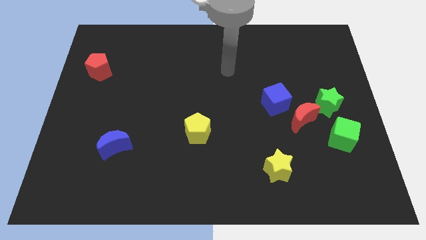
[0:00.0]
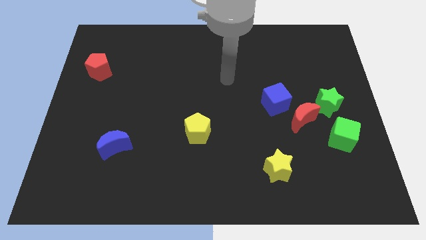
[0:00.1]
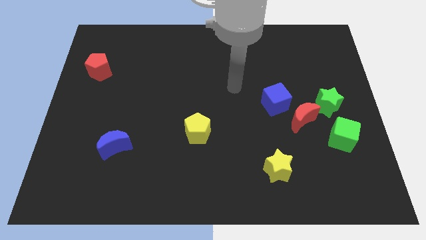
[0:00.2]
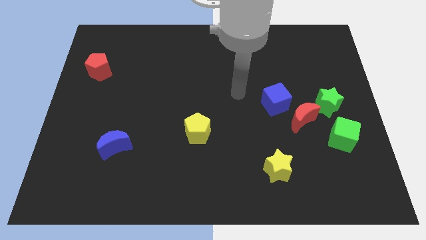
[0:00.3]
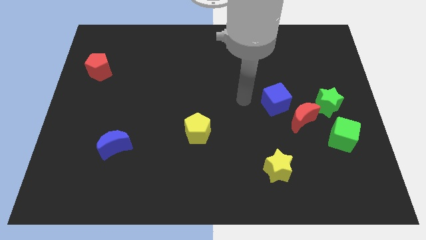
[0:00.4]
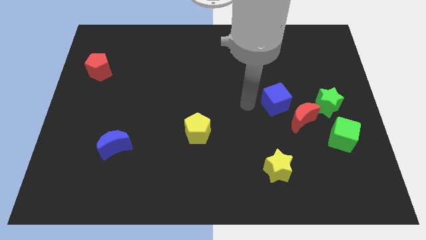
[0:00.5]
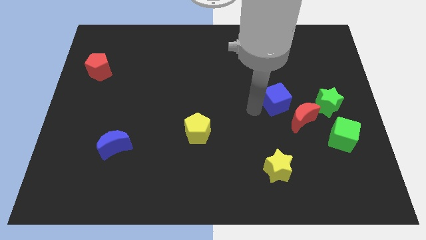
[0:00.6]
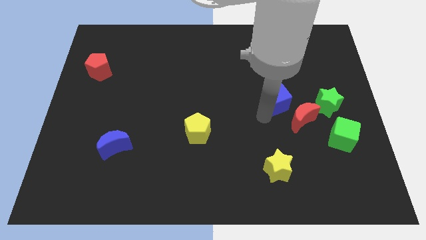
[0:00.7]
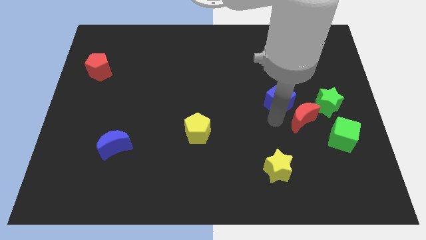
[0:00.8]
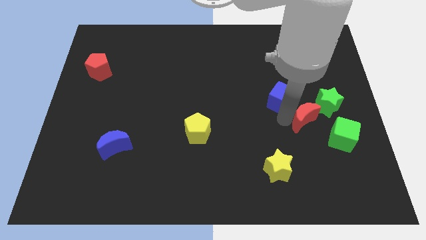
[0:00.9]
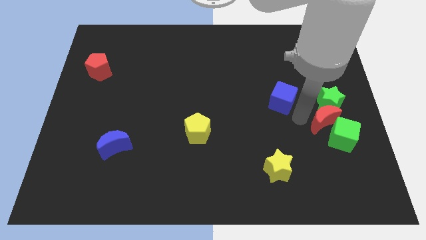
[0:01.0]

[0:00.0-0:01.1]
separate the blue cube from the red moon

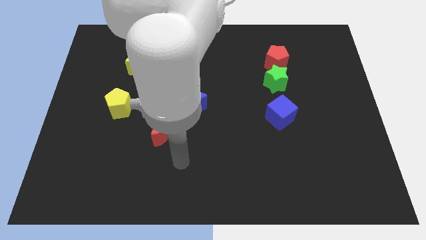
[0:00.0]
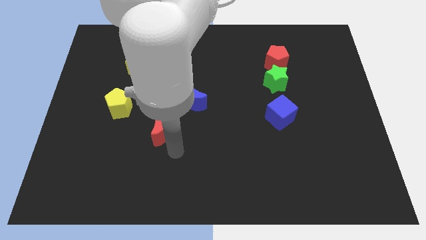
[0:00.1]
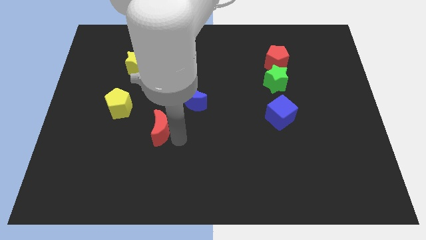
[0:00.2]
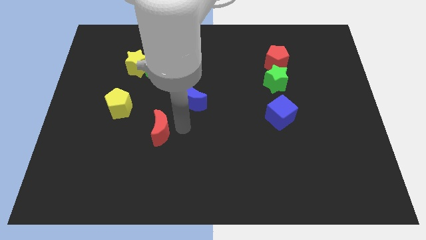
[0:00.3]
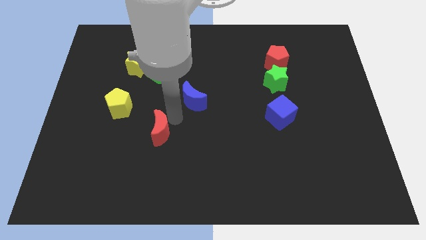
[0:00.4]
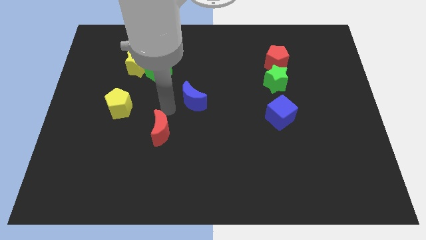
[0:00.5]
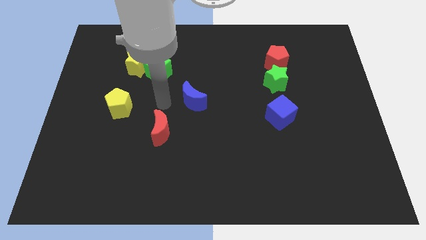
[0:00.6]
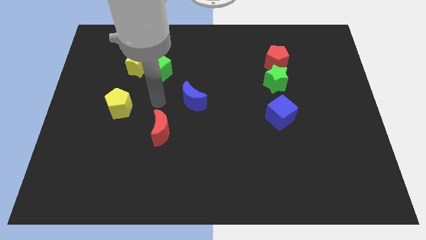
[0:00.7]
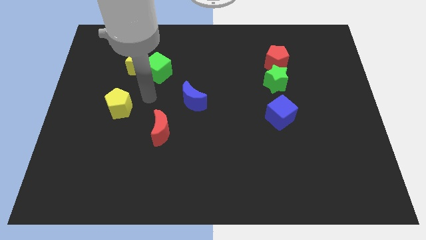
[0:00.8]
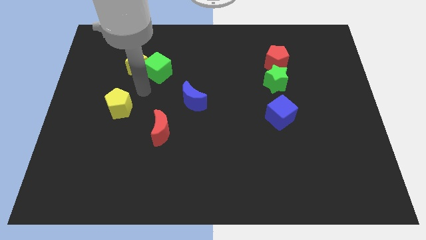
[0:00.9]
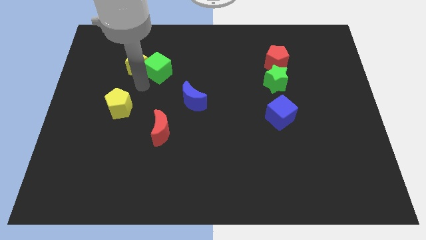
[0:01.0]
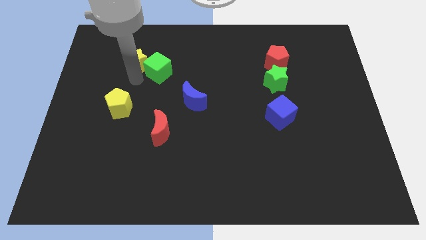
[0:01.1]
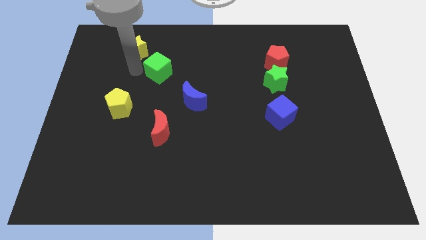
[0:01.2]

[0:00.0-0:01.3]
pull the green cube apart from the yellow star

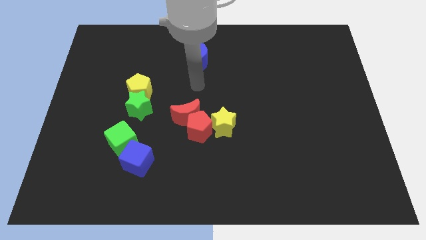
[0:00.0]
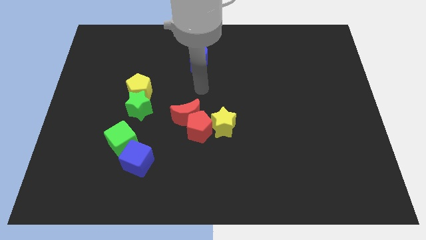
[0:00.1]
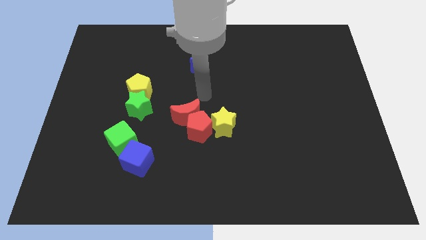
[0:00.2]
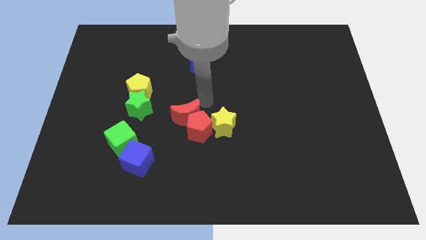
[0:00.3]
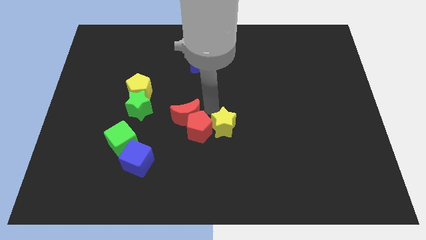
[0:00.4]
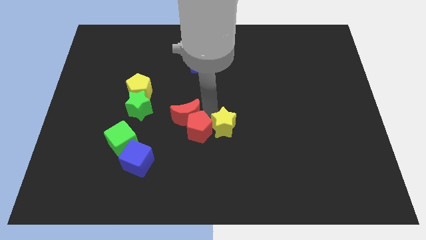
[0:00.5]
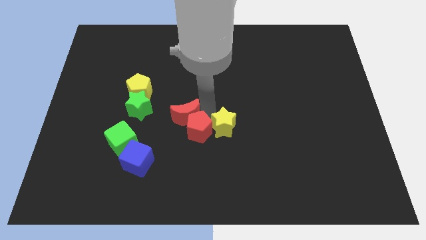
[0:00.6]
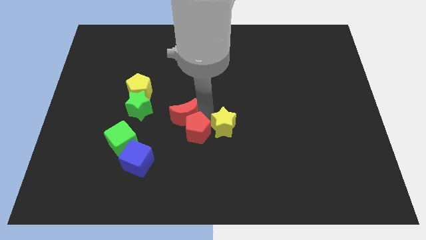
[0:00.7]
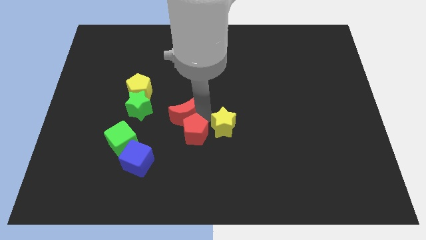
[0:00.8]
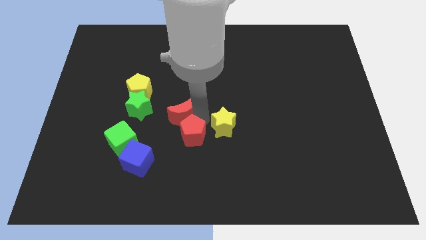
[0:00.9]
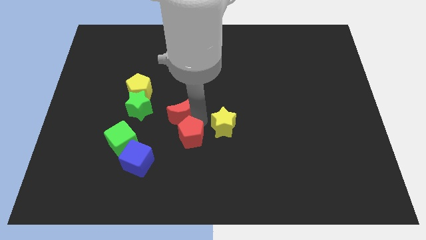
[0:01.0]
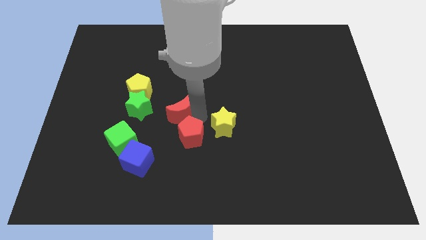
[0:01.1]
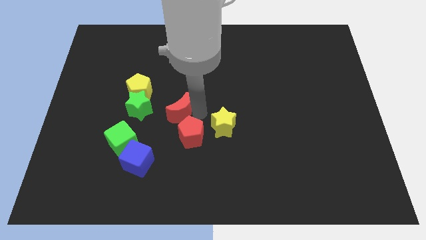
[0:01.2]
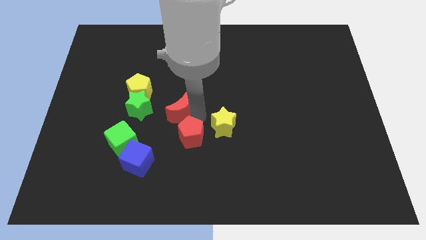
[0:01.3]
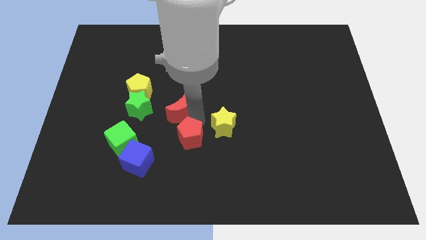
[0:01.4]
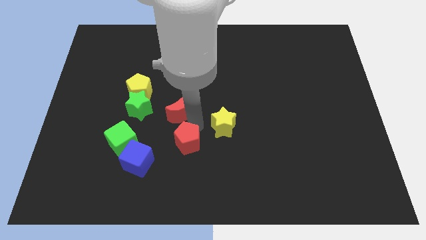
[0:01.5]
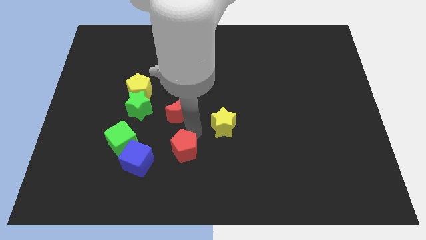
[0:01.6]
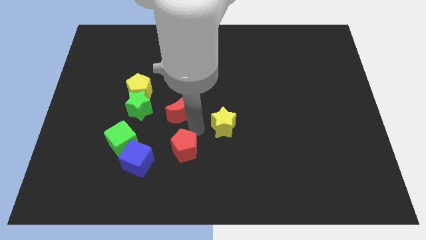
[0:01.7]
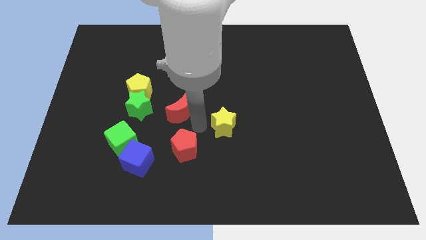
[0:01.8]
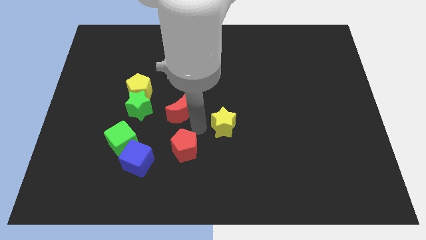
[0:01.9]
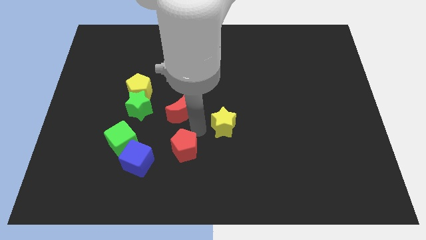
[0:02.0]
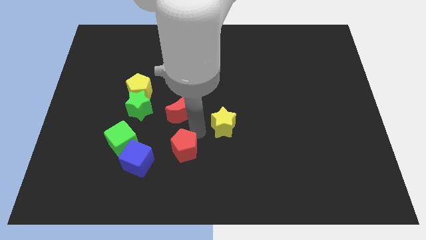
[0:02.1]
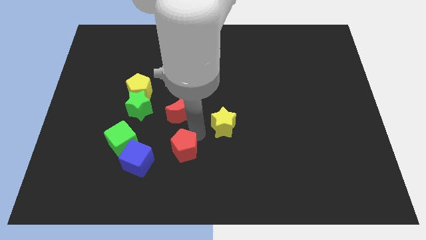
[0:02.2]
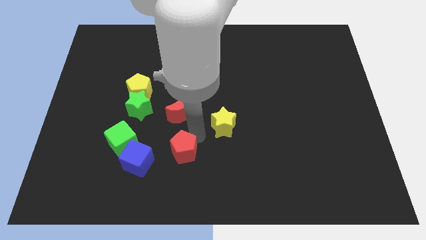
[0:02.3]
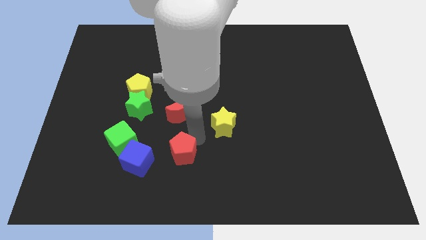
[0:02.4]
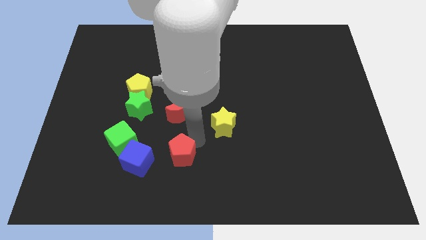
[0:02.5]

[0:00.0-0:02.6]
separate the red pentagon from the red moon and yellow star

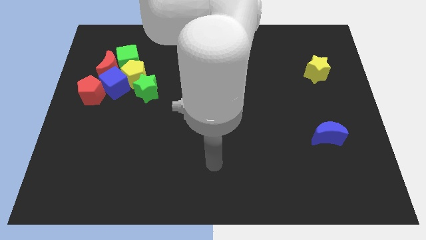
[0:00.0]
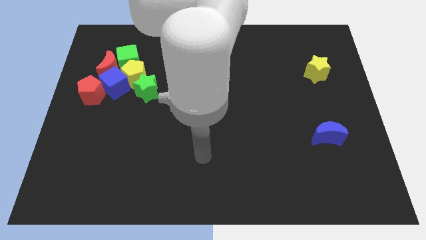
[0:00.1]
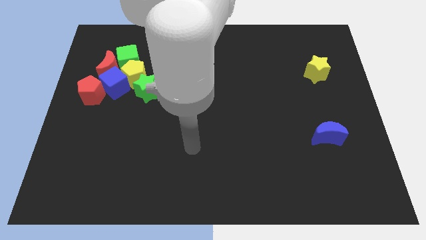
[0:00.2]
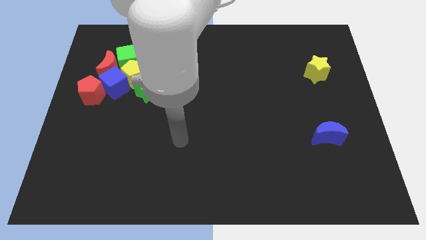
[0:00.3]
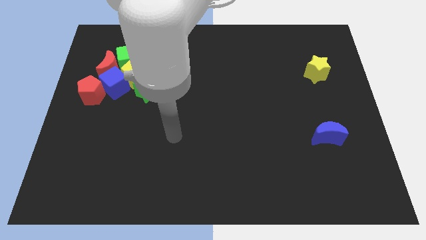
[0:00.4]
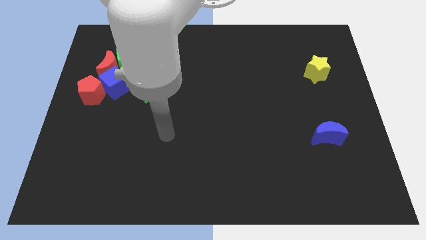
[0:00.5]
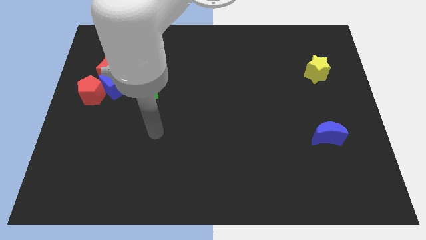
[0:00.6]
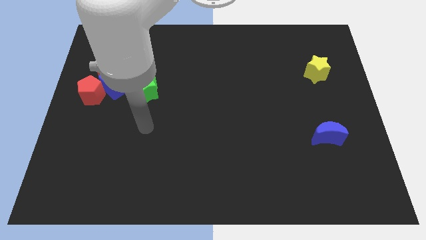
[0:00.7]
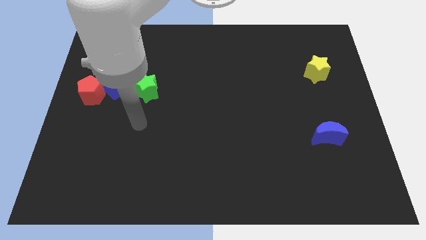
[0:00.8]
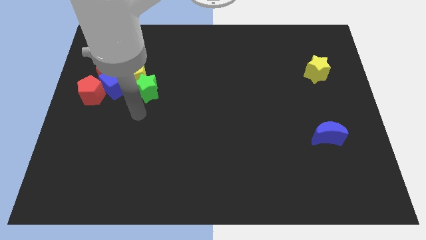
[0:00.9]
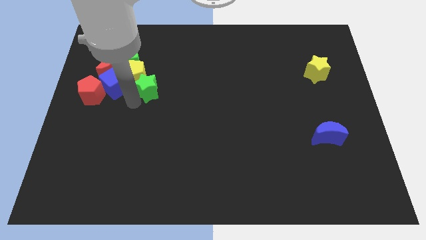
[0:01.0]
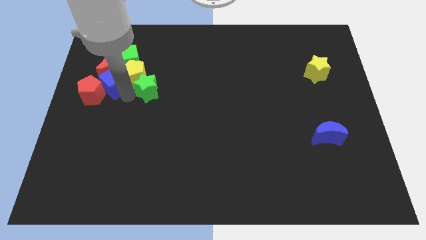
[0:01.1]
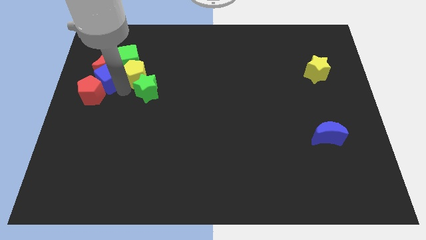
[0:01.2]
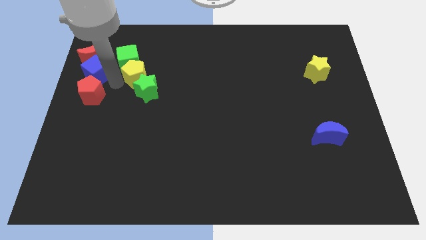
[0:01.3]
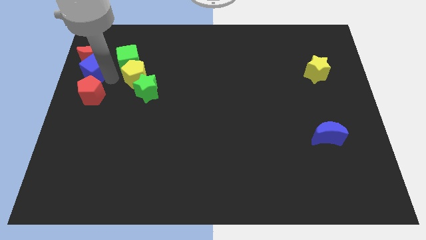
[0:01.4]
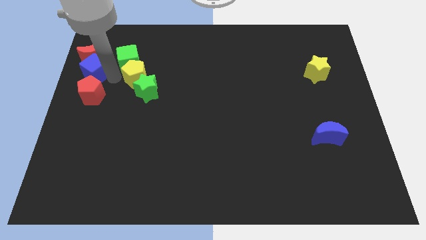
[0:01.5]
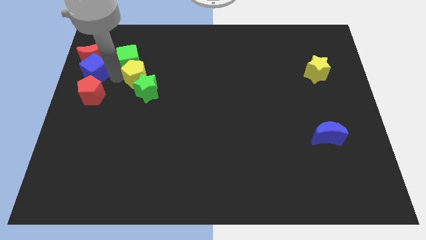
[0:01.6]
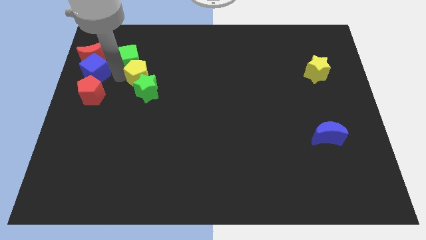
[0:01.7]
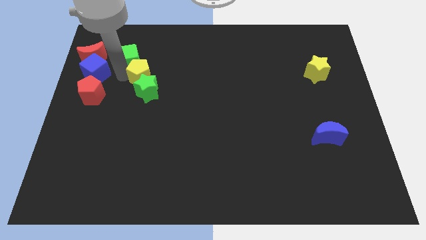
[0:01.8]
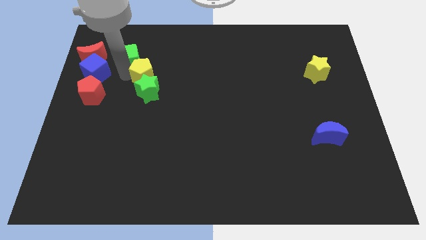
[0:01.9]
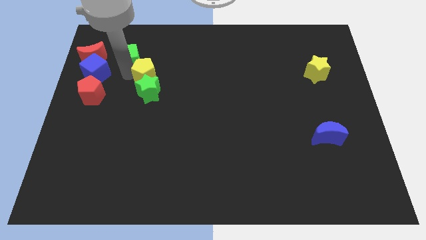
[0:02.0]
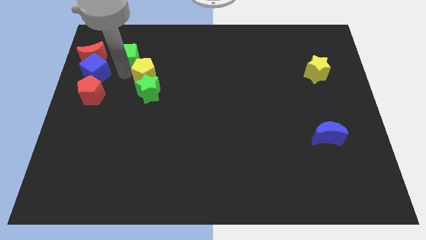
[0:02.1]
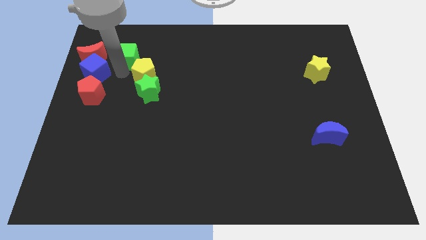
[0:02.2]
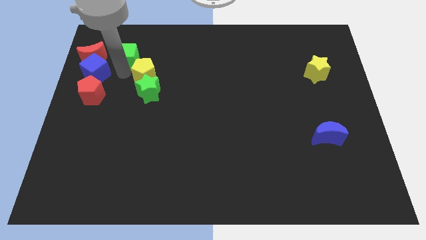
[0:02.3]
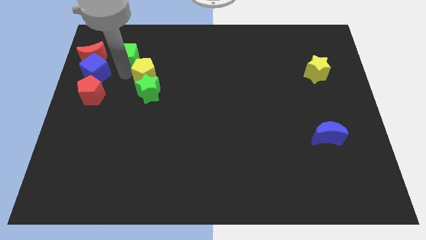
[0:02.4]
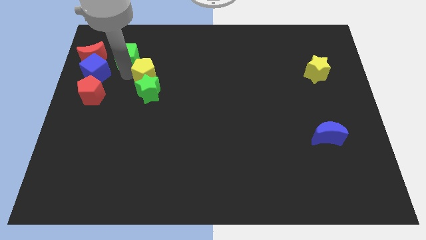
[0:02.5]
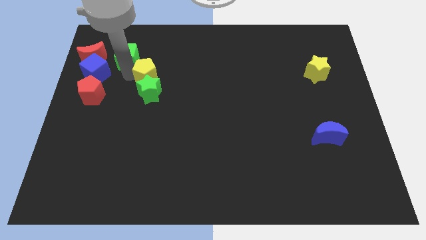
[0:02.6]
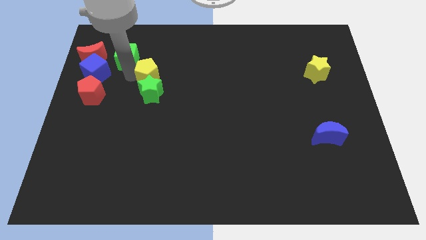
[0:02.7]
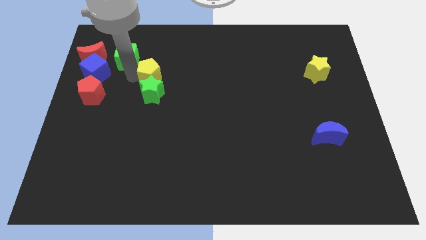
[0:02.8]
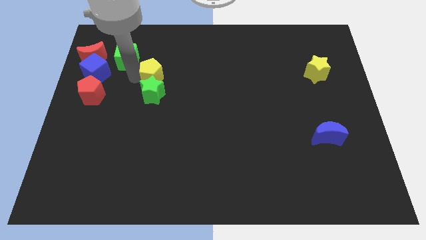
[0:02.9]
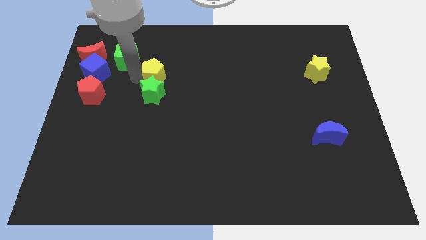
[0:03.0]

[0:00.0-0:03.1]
separate the yellow pentagon from the group of blocks

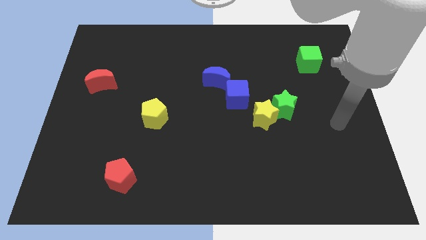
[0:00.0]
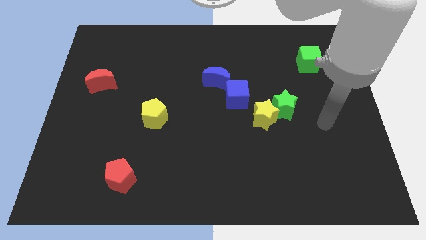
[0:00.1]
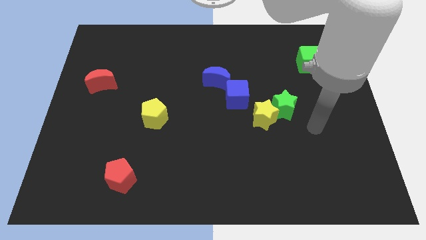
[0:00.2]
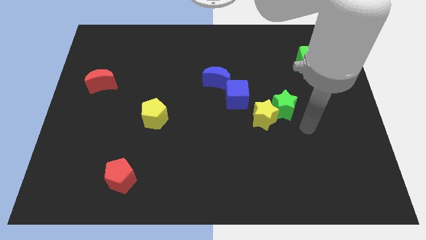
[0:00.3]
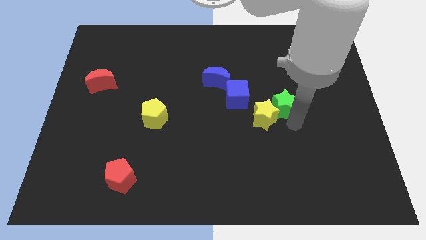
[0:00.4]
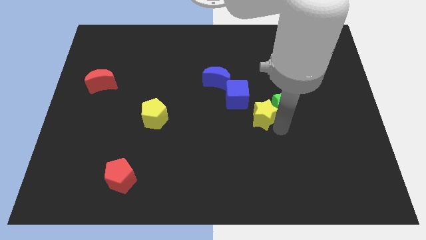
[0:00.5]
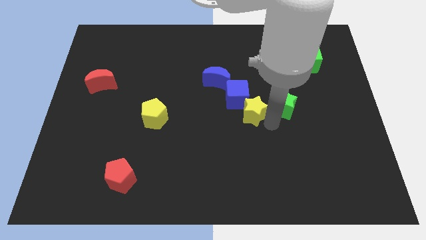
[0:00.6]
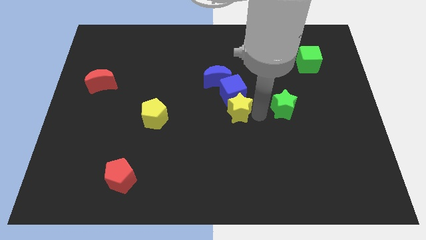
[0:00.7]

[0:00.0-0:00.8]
move the green star away from the yellow star

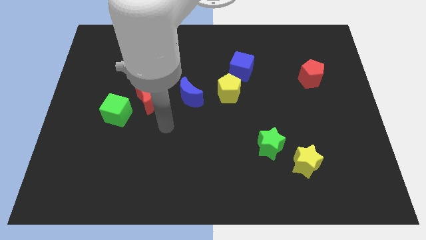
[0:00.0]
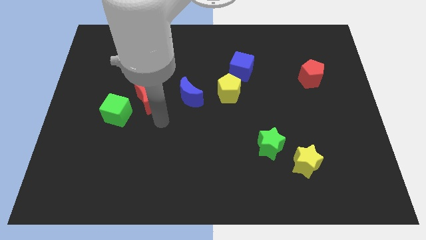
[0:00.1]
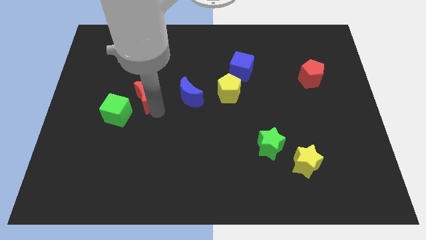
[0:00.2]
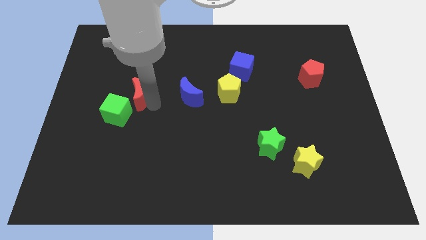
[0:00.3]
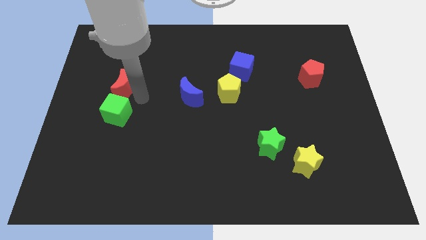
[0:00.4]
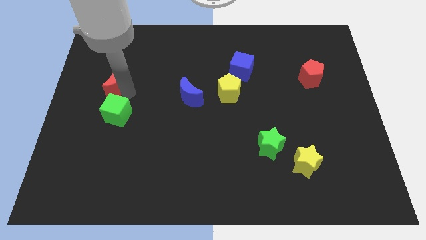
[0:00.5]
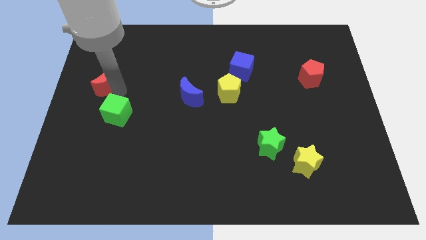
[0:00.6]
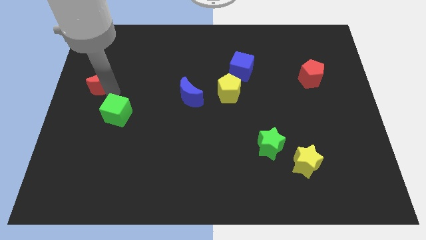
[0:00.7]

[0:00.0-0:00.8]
move the green cube away from the red moon
